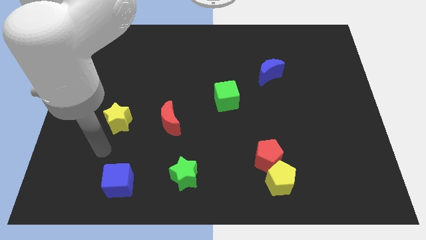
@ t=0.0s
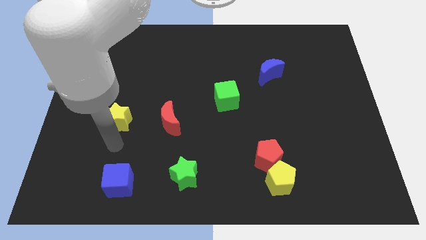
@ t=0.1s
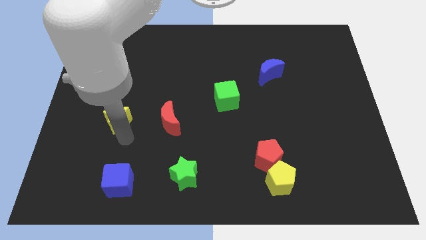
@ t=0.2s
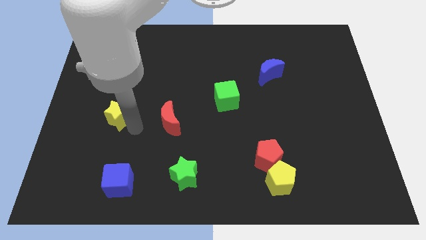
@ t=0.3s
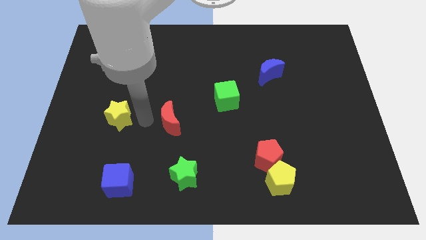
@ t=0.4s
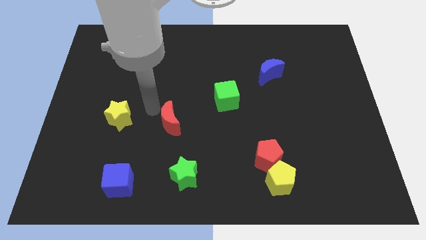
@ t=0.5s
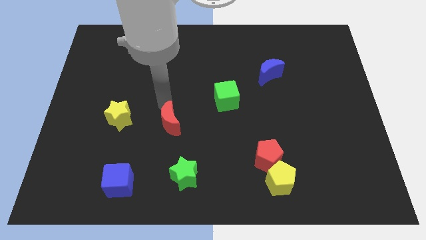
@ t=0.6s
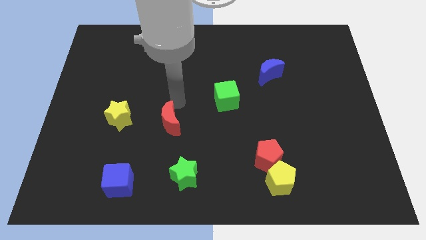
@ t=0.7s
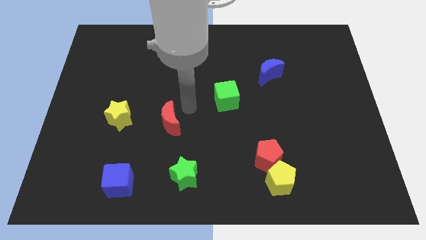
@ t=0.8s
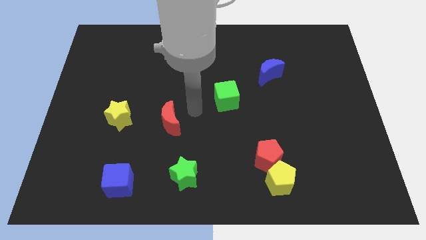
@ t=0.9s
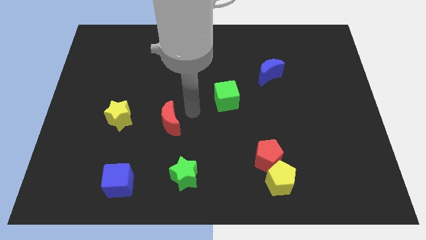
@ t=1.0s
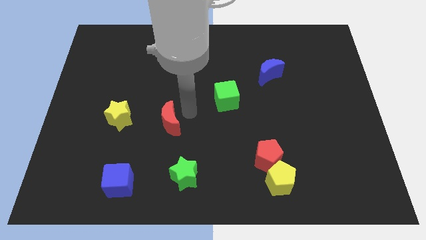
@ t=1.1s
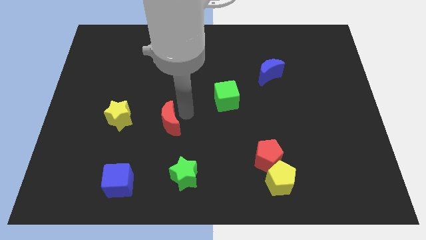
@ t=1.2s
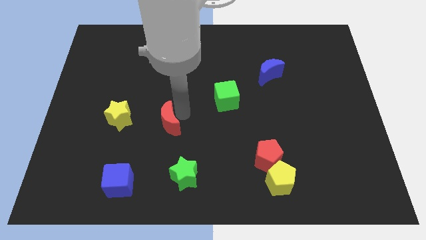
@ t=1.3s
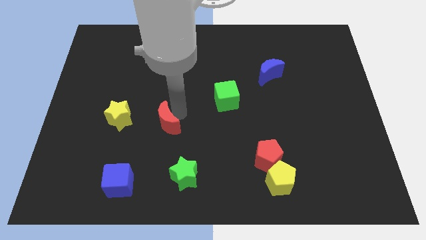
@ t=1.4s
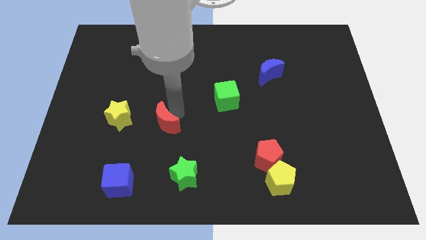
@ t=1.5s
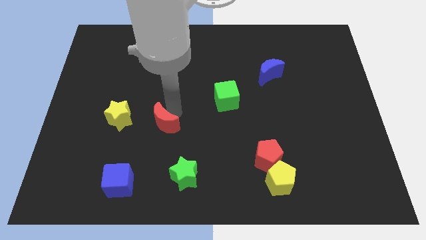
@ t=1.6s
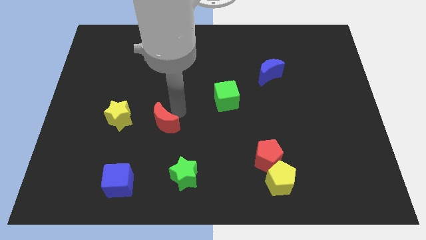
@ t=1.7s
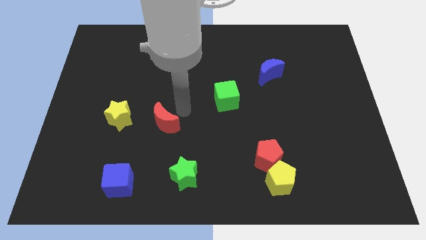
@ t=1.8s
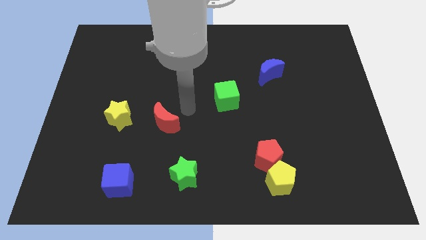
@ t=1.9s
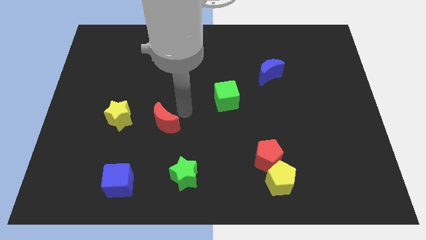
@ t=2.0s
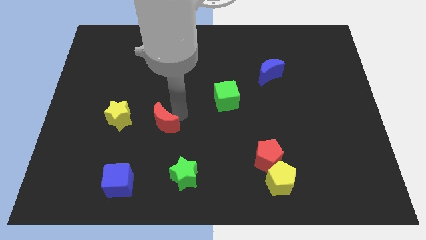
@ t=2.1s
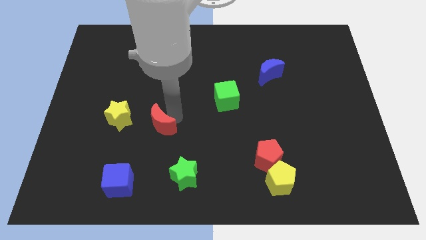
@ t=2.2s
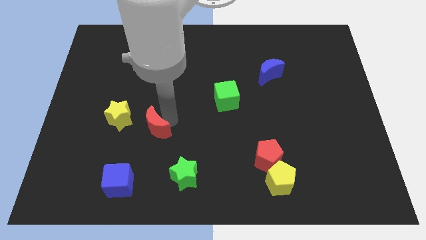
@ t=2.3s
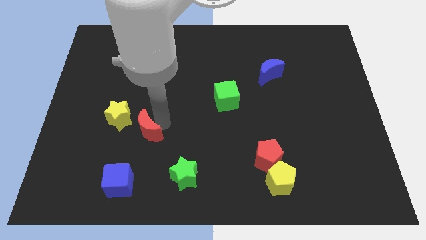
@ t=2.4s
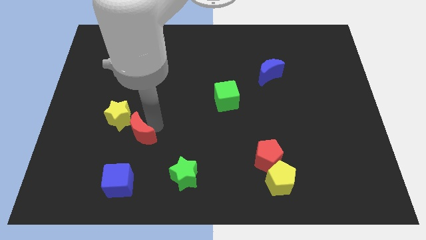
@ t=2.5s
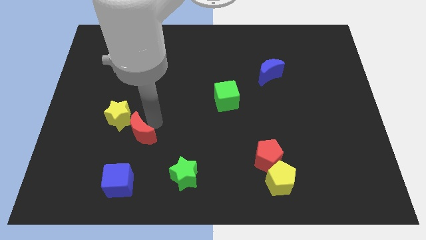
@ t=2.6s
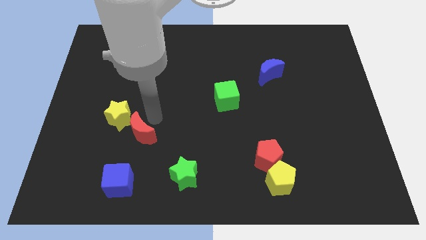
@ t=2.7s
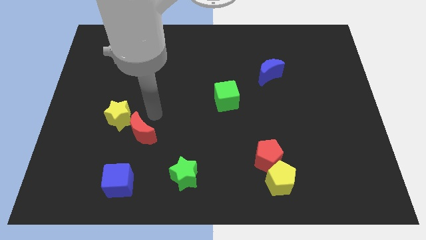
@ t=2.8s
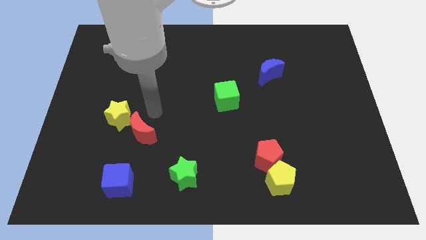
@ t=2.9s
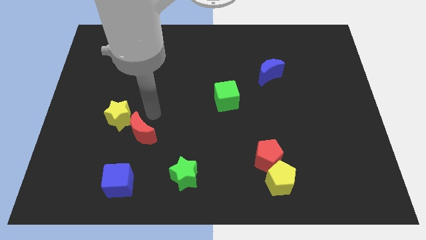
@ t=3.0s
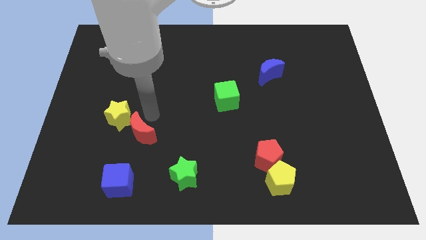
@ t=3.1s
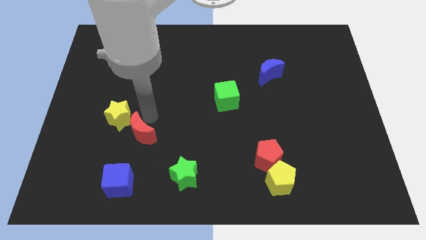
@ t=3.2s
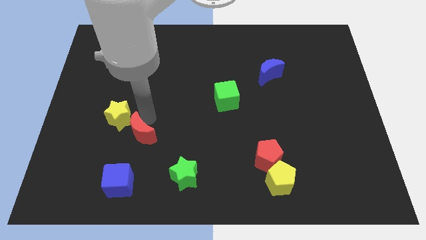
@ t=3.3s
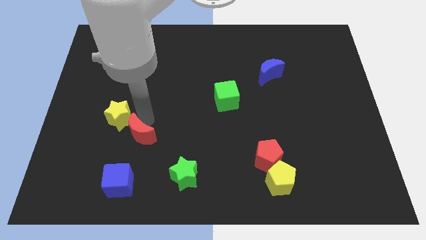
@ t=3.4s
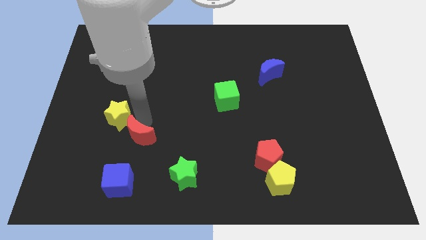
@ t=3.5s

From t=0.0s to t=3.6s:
slide the red moon downwards and then to the left a little bit

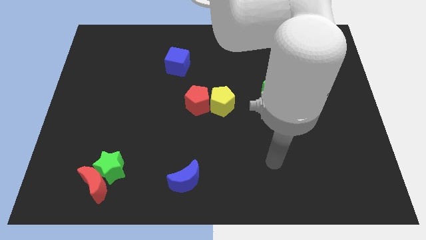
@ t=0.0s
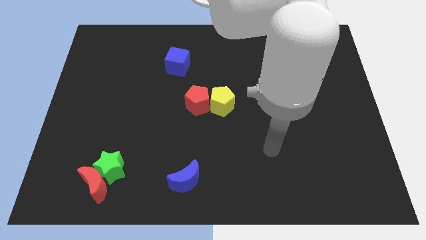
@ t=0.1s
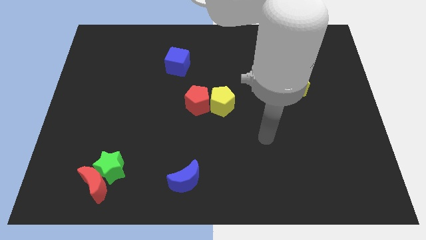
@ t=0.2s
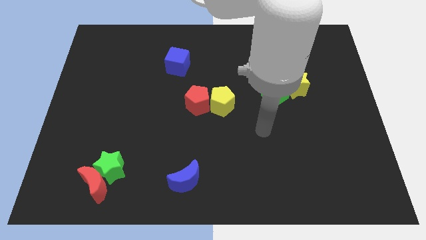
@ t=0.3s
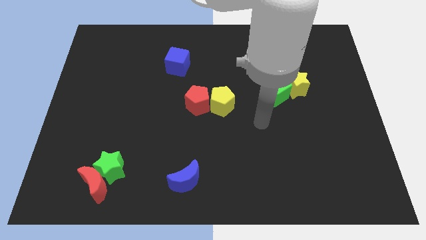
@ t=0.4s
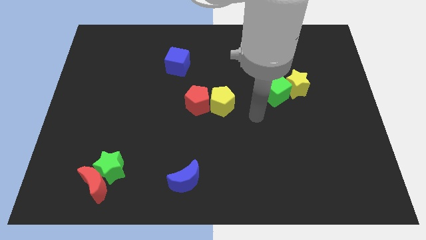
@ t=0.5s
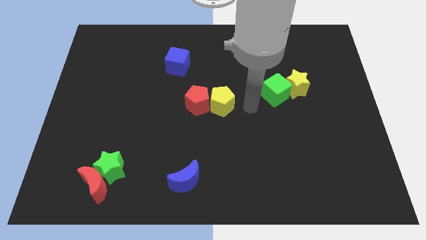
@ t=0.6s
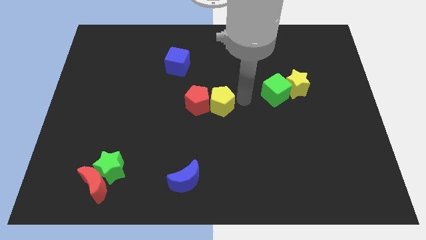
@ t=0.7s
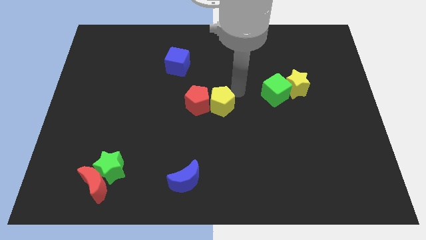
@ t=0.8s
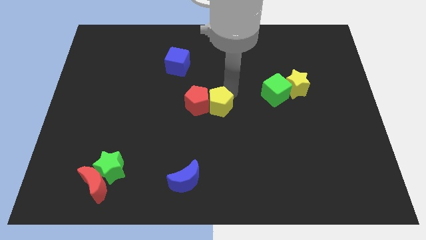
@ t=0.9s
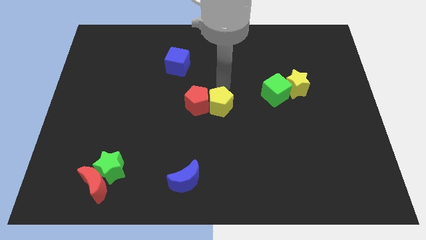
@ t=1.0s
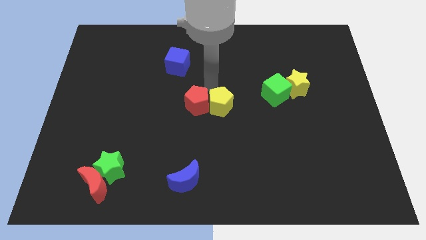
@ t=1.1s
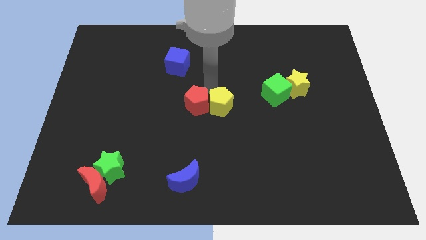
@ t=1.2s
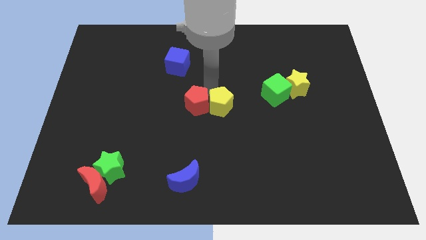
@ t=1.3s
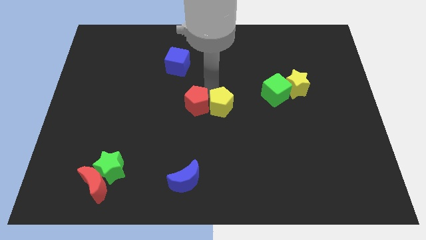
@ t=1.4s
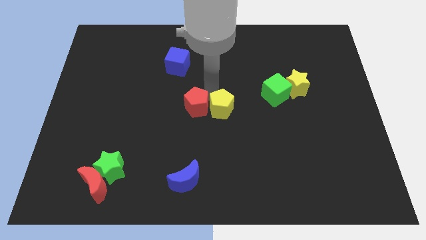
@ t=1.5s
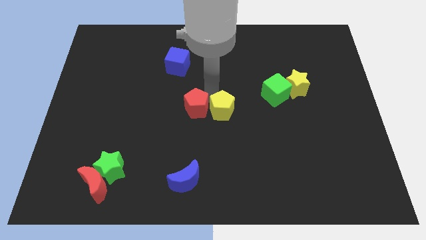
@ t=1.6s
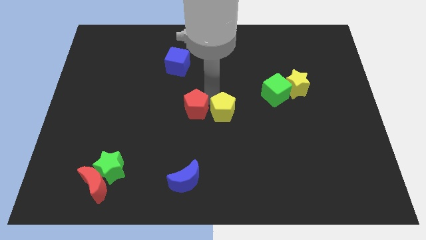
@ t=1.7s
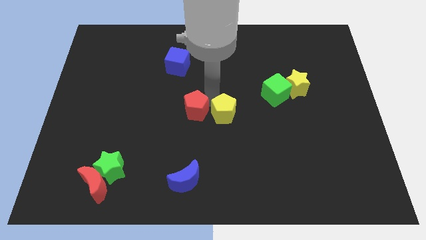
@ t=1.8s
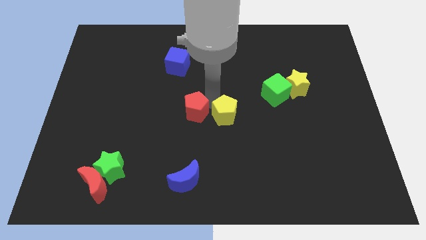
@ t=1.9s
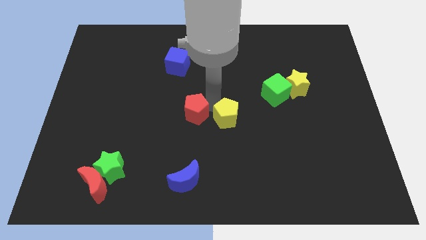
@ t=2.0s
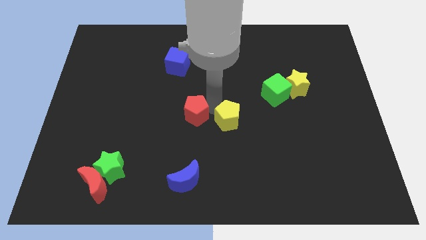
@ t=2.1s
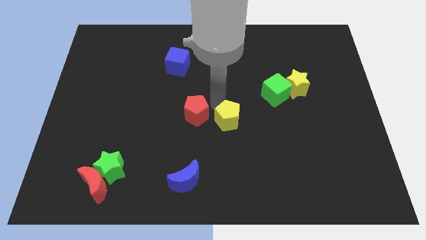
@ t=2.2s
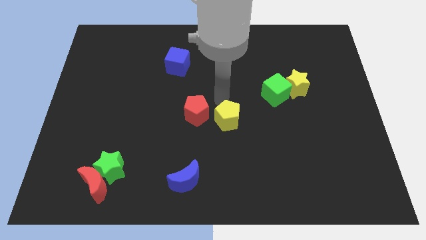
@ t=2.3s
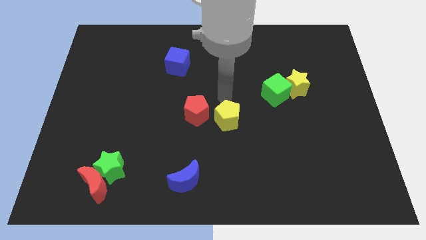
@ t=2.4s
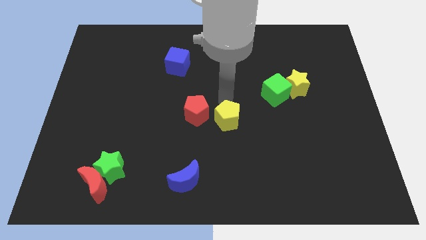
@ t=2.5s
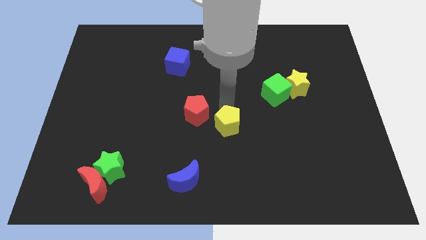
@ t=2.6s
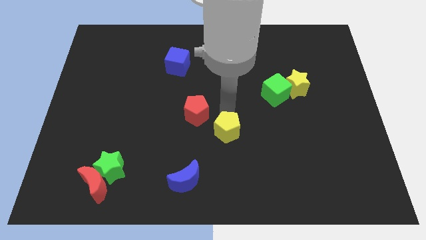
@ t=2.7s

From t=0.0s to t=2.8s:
slide the yellow pentagon a little down

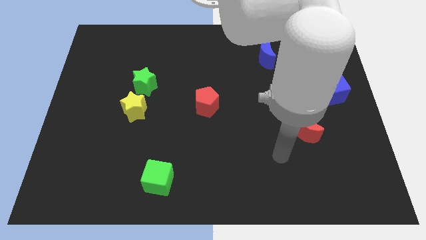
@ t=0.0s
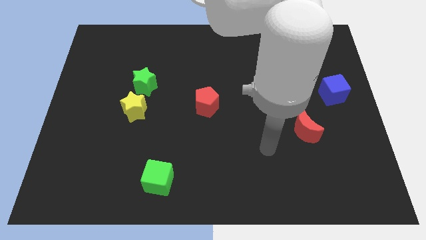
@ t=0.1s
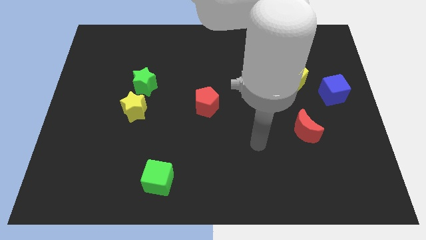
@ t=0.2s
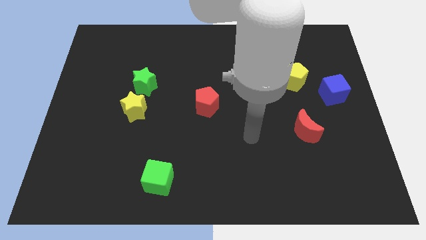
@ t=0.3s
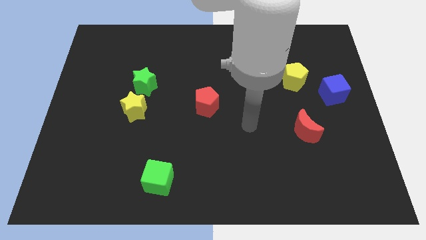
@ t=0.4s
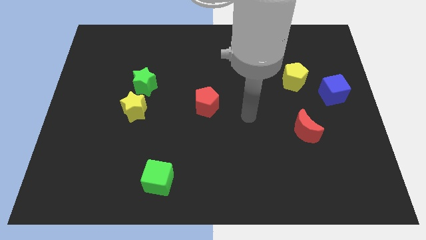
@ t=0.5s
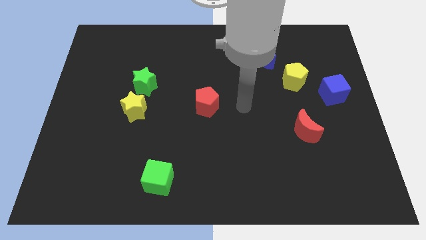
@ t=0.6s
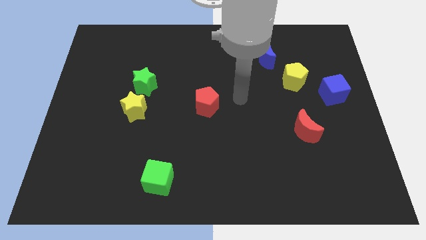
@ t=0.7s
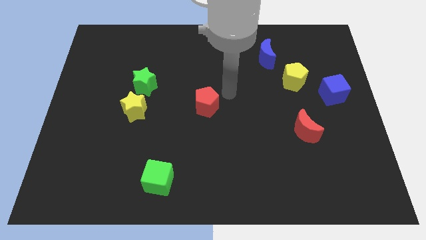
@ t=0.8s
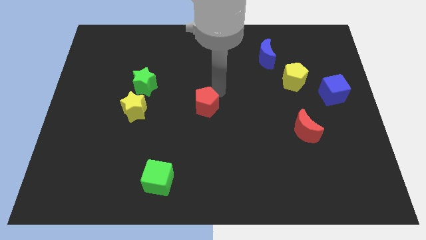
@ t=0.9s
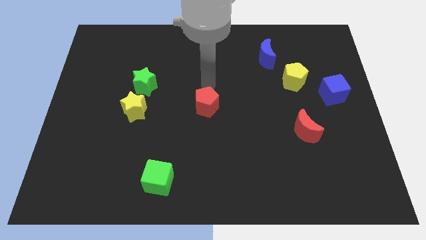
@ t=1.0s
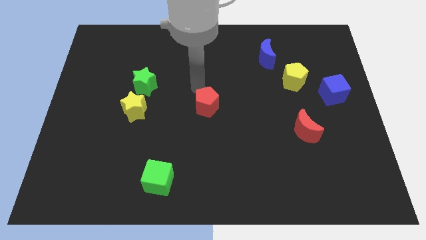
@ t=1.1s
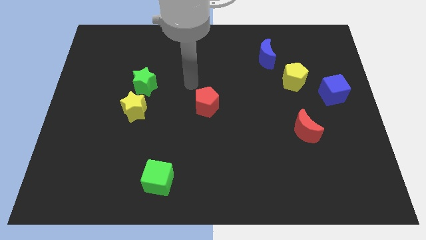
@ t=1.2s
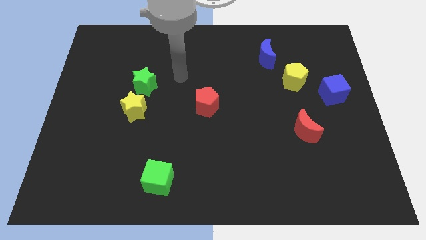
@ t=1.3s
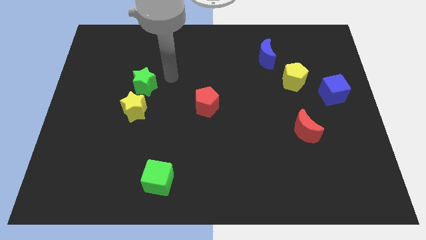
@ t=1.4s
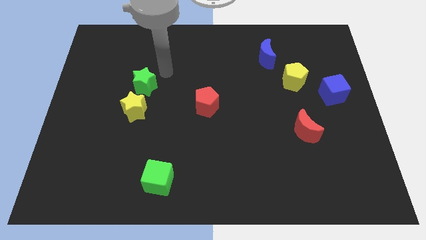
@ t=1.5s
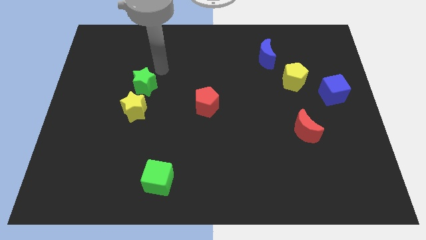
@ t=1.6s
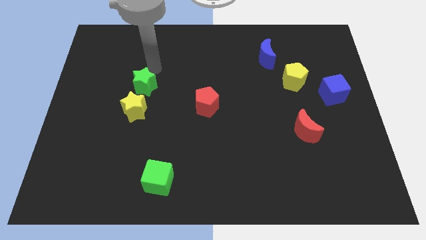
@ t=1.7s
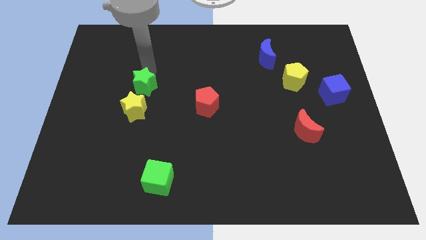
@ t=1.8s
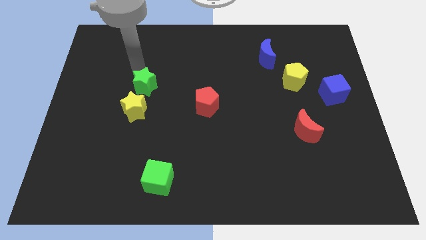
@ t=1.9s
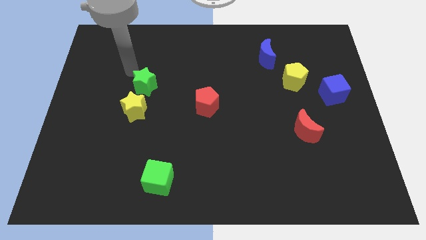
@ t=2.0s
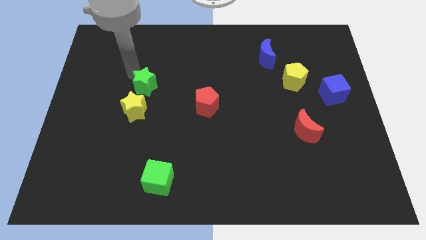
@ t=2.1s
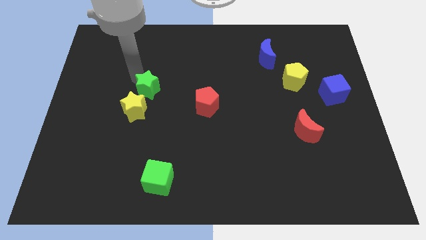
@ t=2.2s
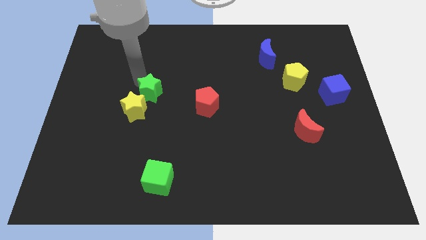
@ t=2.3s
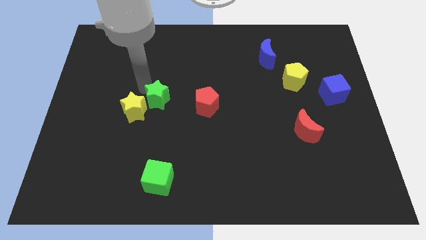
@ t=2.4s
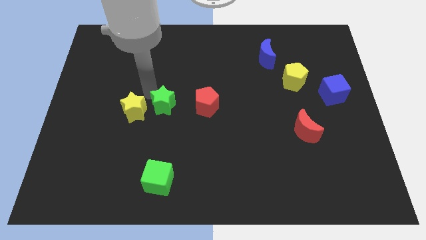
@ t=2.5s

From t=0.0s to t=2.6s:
move the green star downwards and right somewhat
